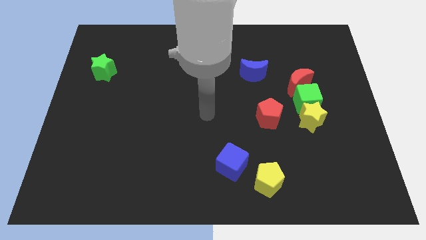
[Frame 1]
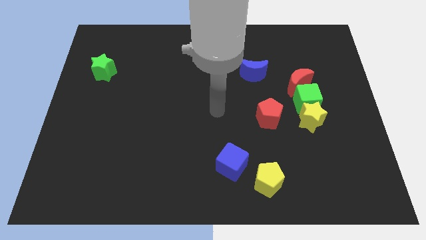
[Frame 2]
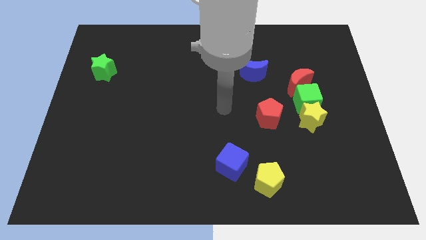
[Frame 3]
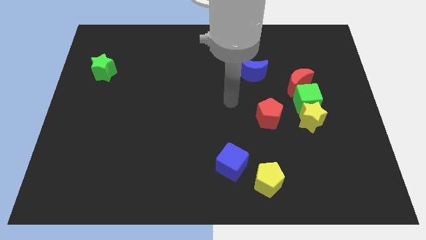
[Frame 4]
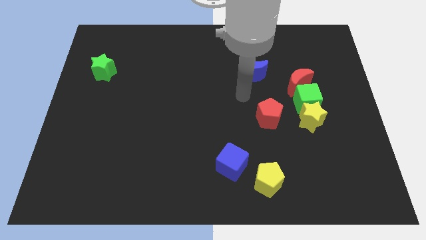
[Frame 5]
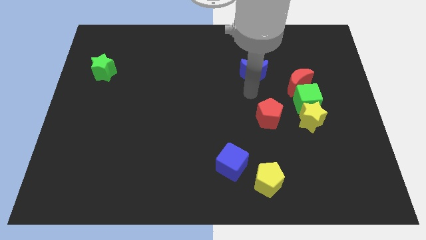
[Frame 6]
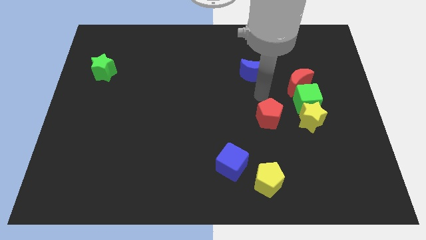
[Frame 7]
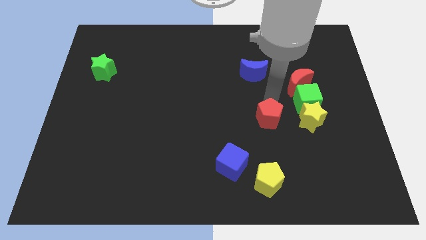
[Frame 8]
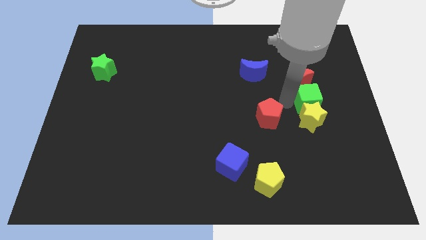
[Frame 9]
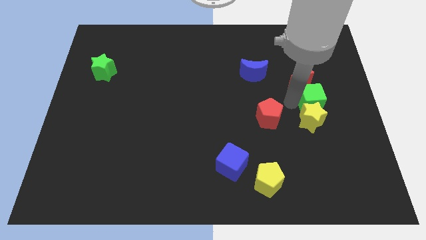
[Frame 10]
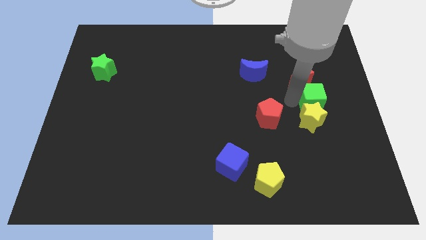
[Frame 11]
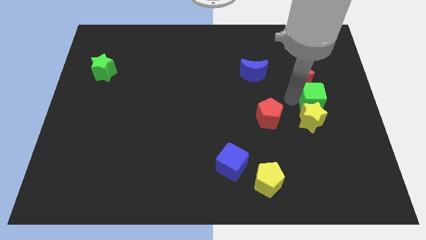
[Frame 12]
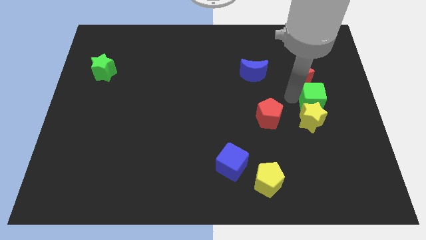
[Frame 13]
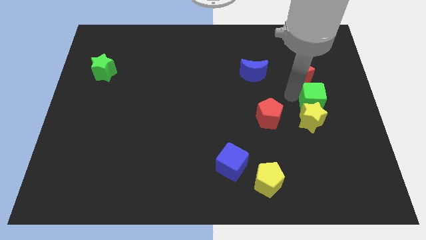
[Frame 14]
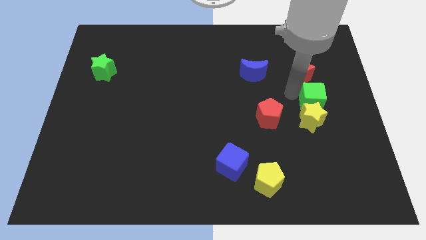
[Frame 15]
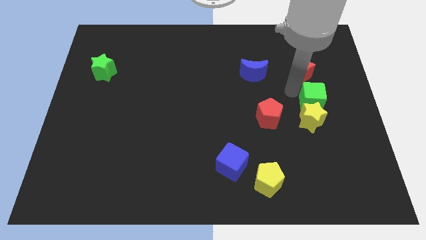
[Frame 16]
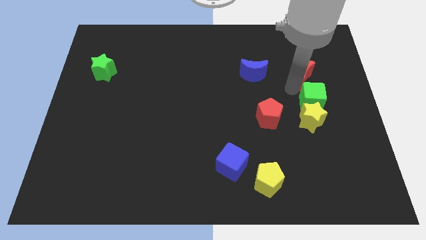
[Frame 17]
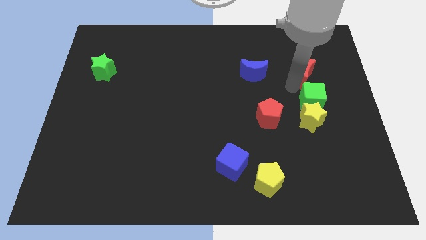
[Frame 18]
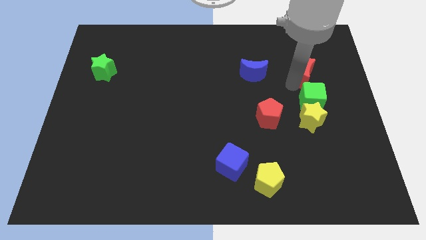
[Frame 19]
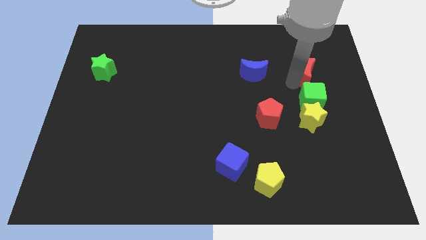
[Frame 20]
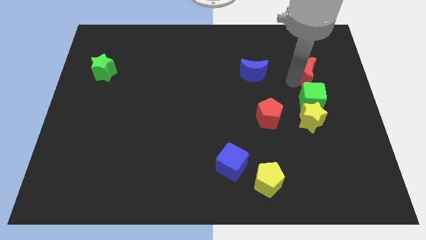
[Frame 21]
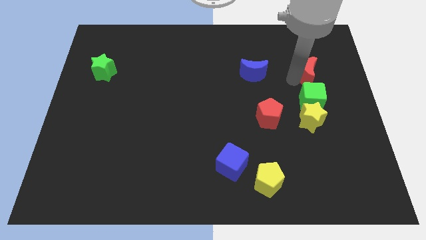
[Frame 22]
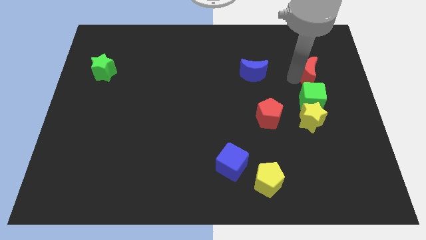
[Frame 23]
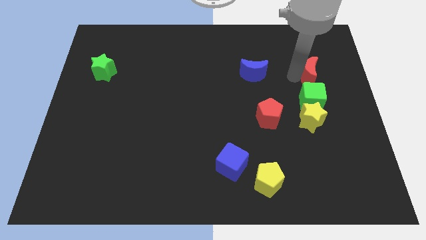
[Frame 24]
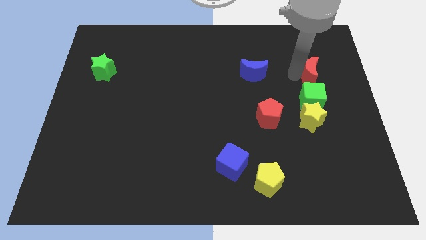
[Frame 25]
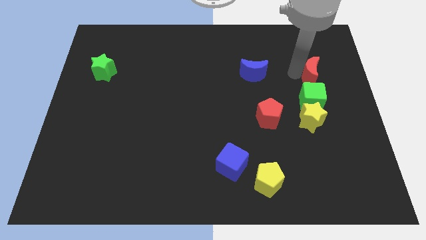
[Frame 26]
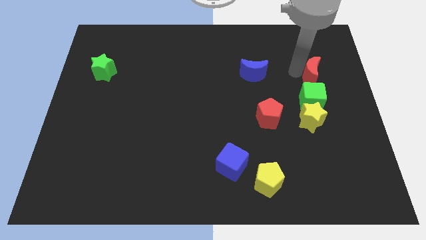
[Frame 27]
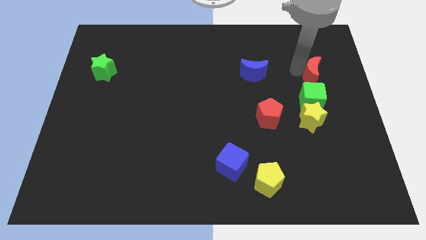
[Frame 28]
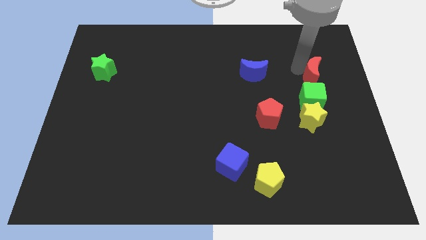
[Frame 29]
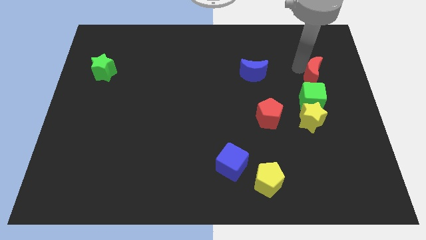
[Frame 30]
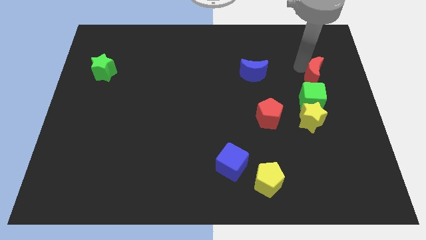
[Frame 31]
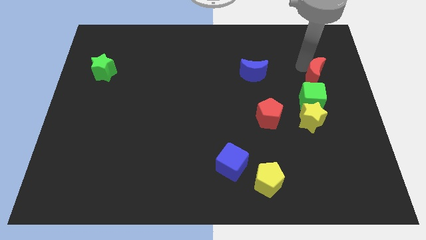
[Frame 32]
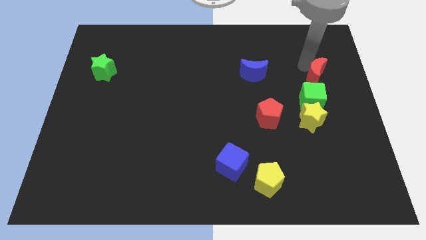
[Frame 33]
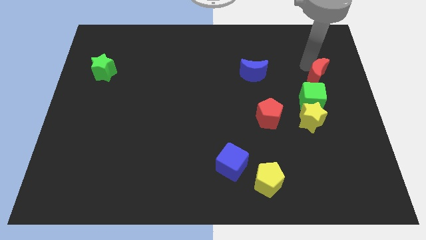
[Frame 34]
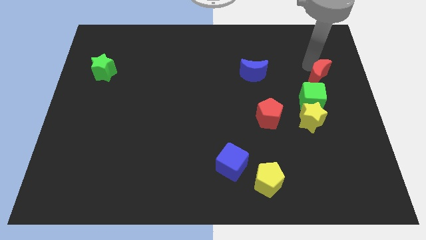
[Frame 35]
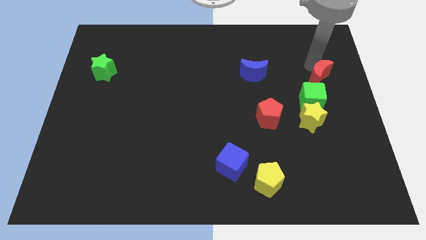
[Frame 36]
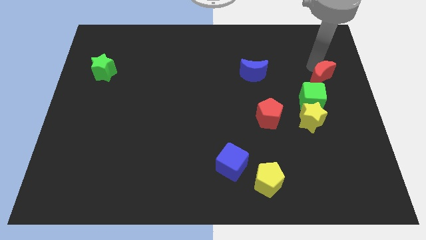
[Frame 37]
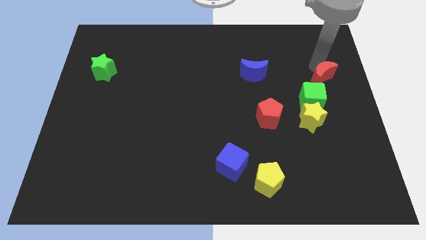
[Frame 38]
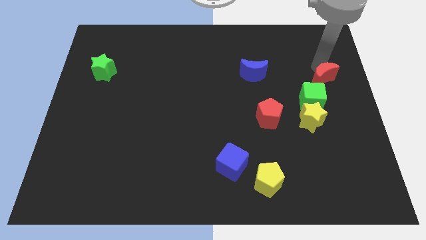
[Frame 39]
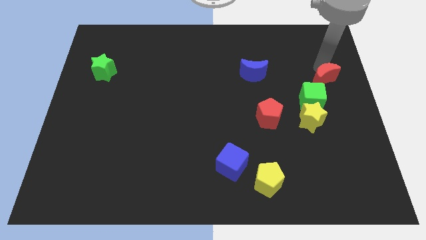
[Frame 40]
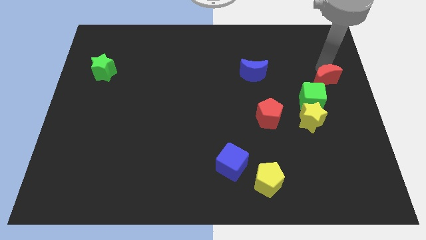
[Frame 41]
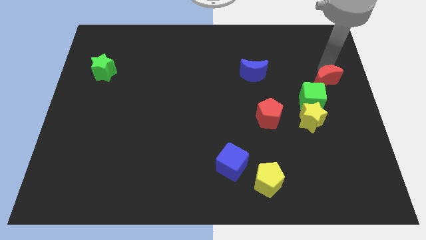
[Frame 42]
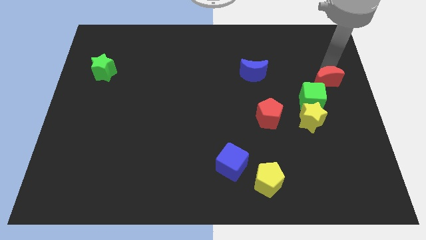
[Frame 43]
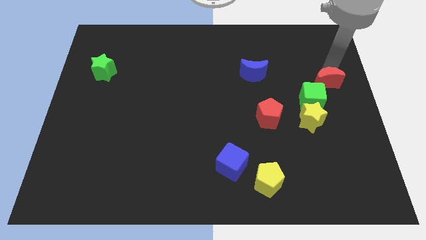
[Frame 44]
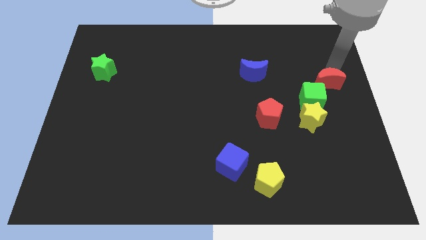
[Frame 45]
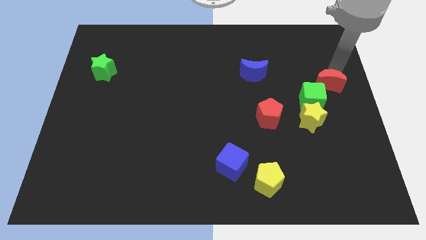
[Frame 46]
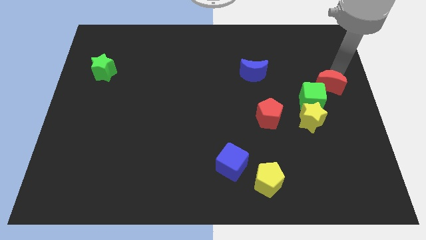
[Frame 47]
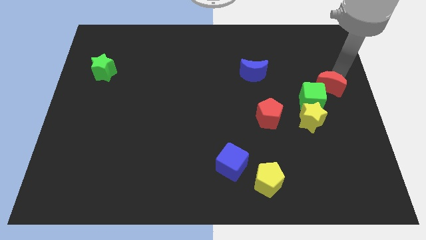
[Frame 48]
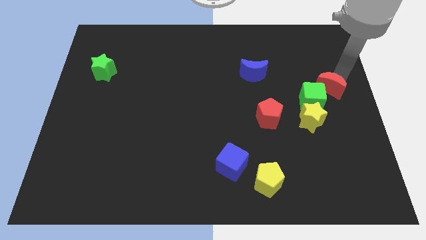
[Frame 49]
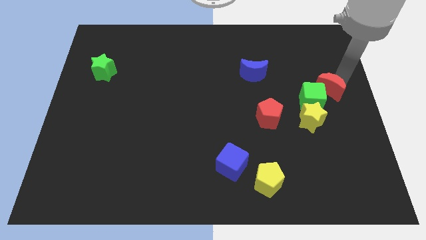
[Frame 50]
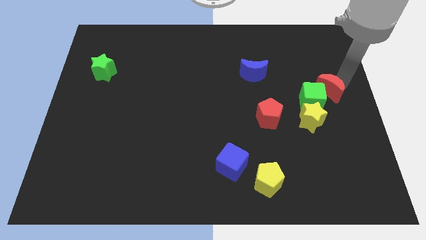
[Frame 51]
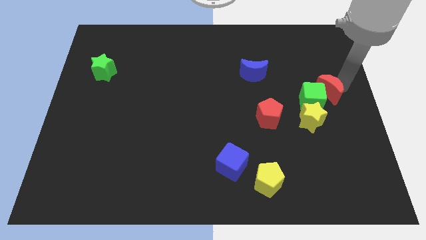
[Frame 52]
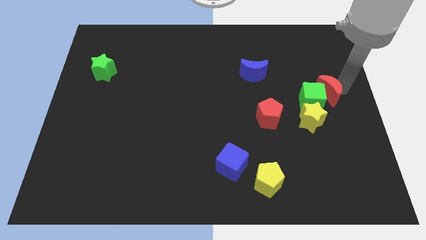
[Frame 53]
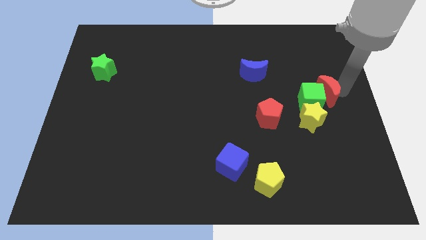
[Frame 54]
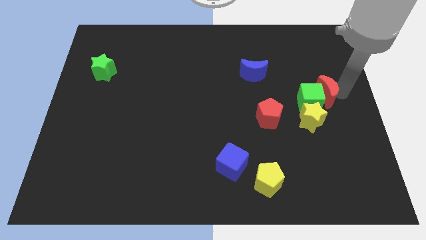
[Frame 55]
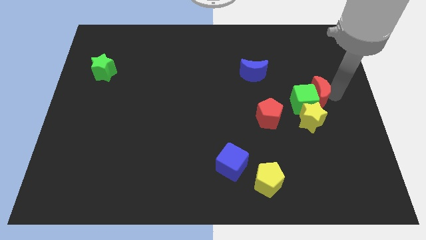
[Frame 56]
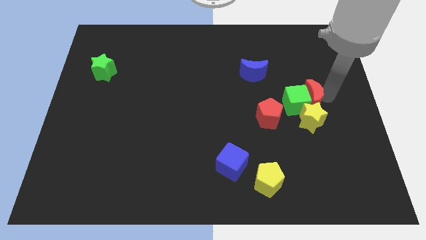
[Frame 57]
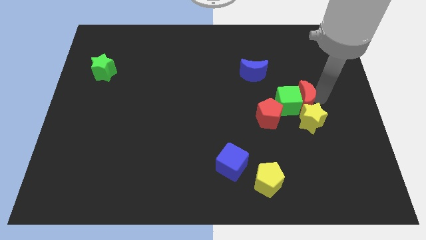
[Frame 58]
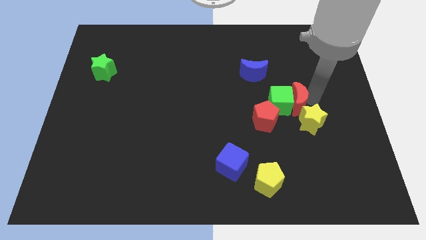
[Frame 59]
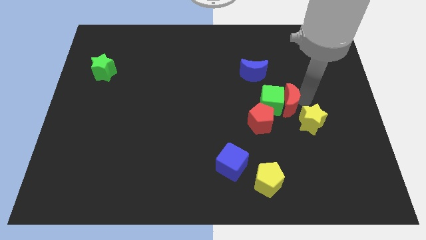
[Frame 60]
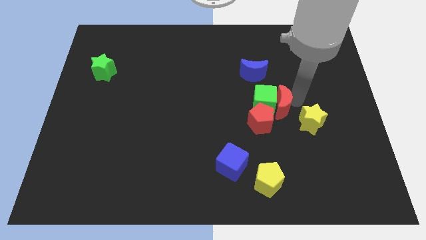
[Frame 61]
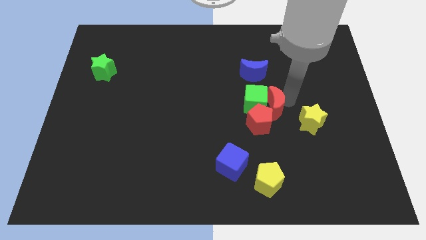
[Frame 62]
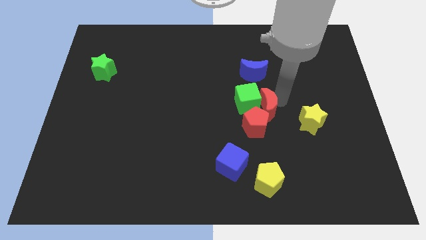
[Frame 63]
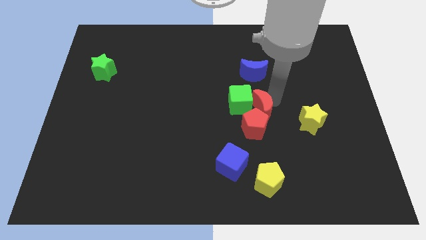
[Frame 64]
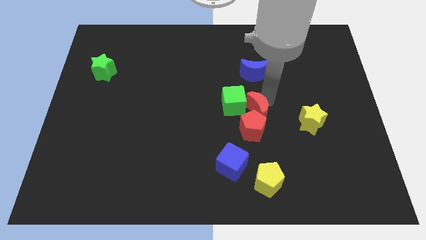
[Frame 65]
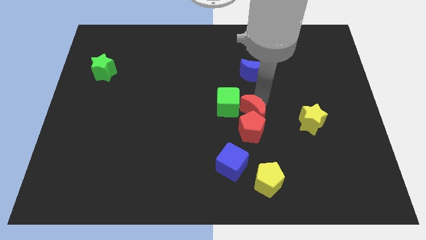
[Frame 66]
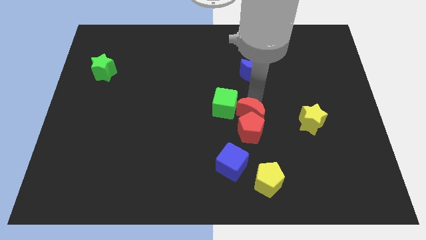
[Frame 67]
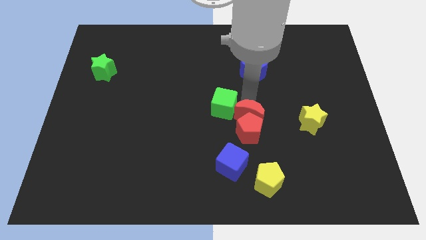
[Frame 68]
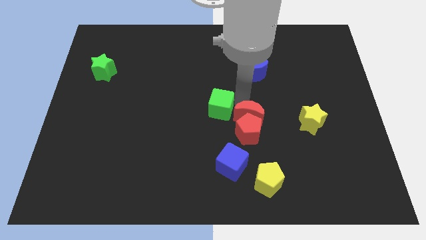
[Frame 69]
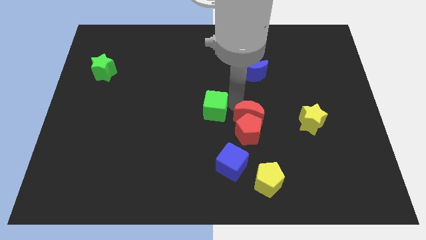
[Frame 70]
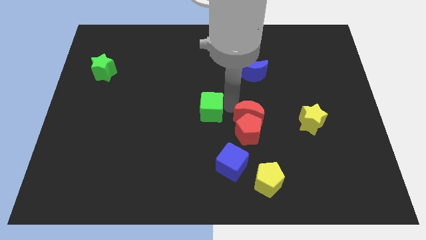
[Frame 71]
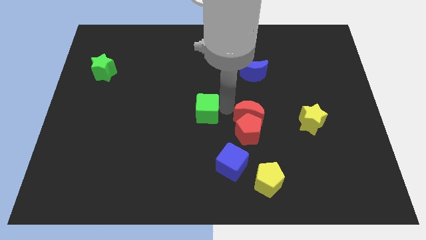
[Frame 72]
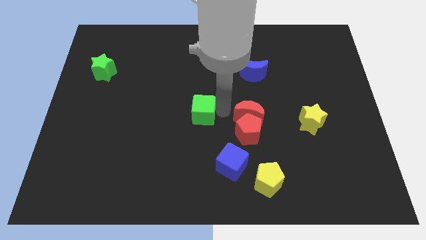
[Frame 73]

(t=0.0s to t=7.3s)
separate the red moon from the green cube

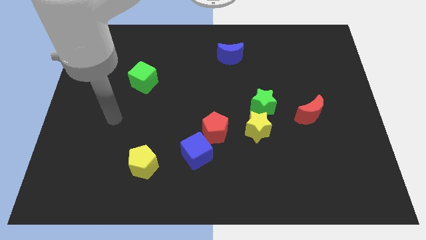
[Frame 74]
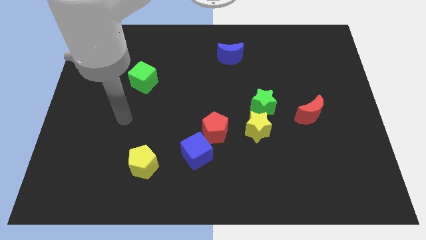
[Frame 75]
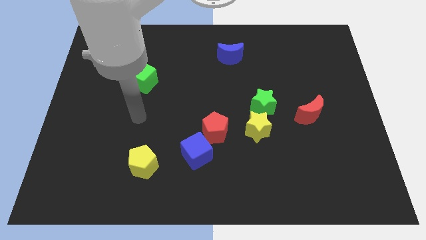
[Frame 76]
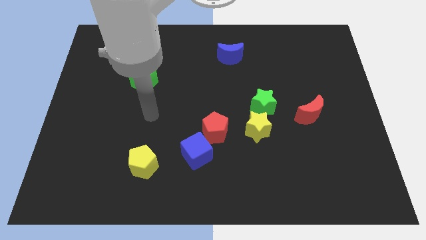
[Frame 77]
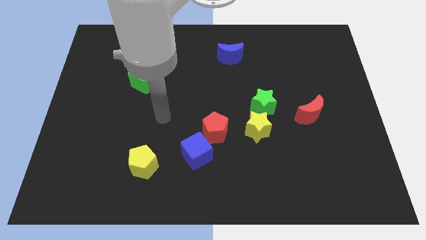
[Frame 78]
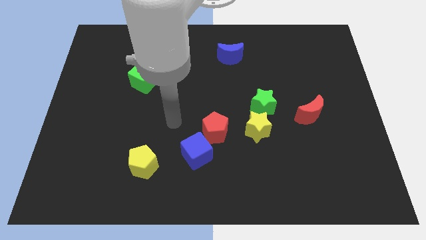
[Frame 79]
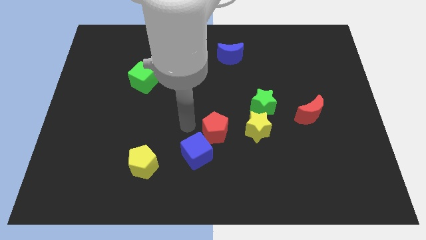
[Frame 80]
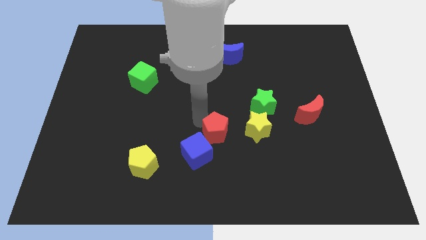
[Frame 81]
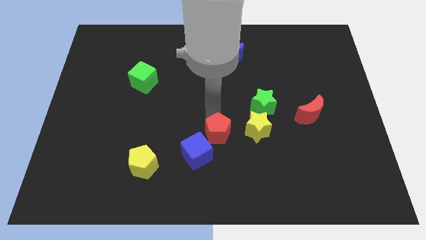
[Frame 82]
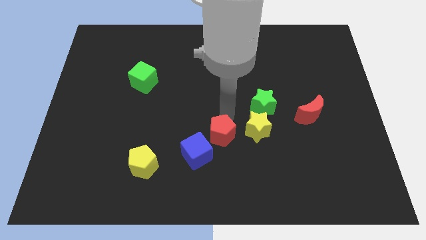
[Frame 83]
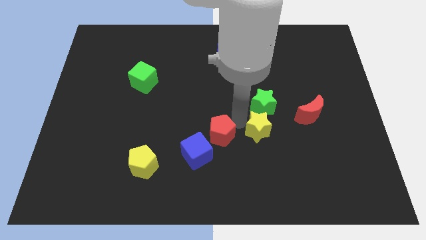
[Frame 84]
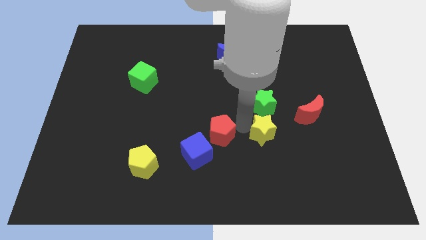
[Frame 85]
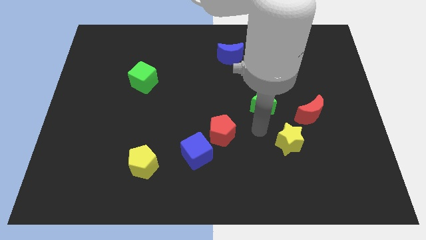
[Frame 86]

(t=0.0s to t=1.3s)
move the green star away from the yellow star

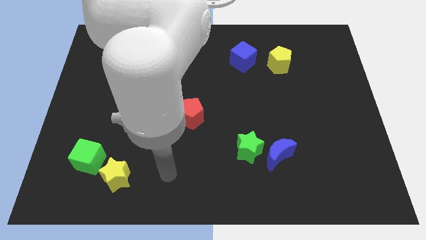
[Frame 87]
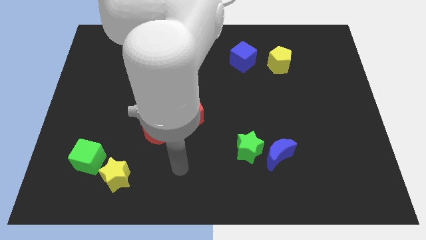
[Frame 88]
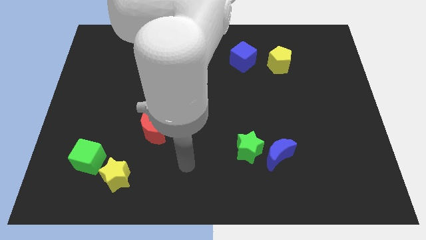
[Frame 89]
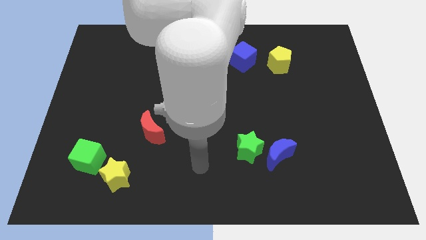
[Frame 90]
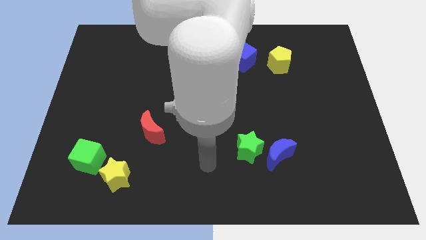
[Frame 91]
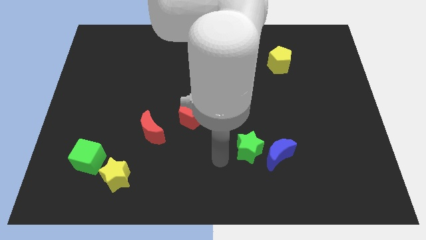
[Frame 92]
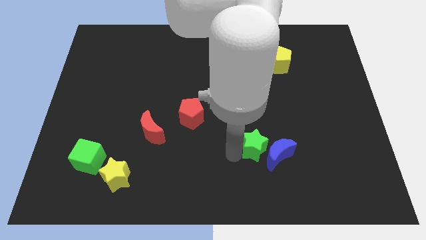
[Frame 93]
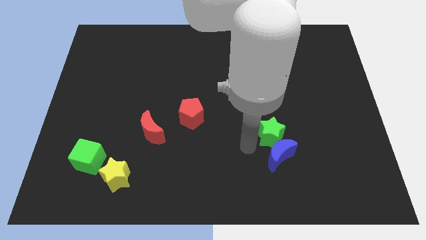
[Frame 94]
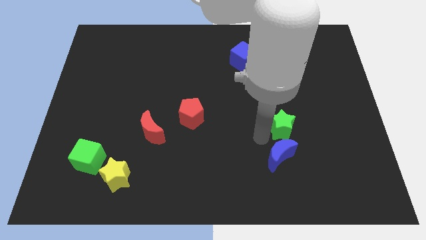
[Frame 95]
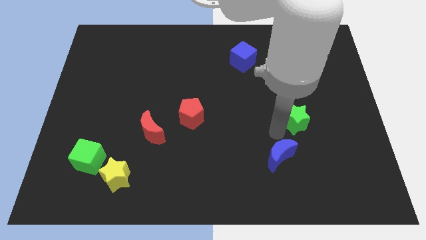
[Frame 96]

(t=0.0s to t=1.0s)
pull the blue moon apart from the green star
